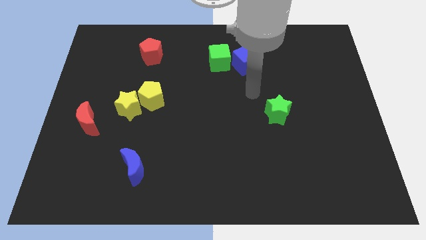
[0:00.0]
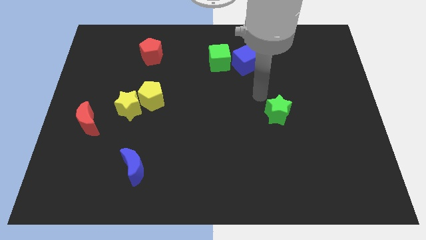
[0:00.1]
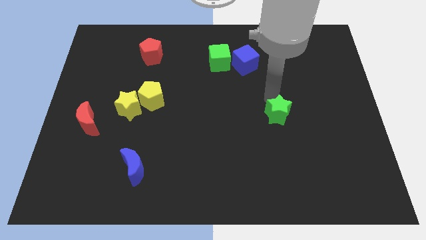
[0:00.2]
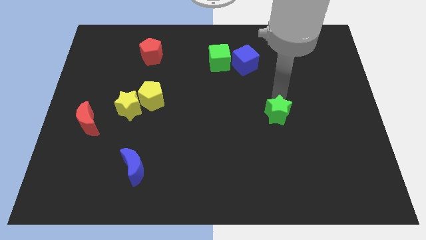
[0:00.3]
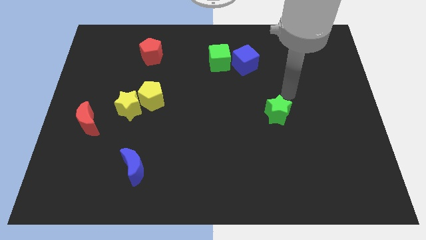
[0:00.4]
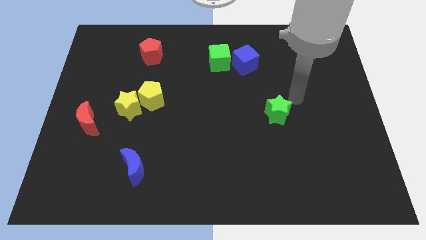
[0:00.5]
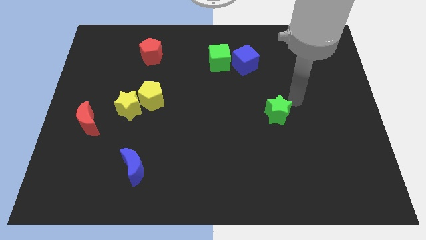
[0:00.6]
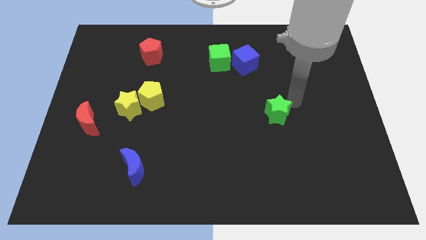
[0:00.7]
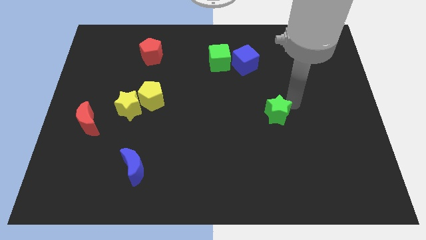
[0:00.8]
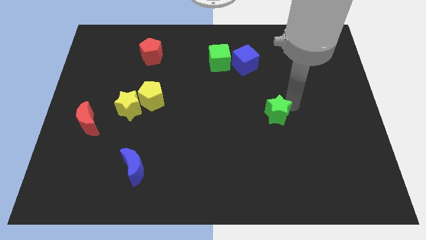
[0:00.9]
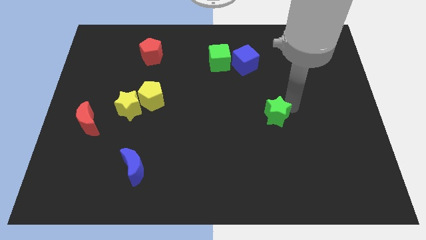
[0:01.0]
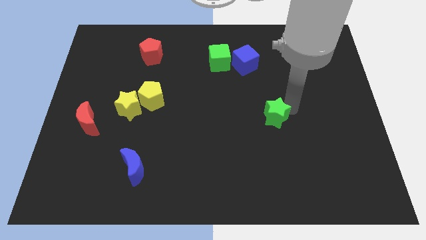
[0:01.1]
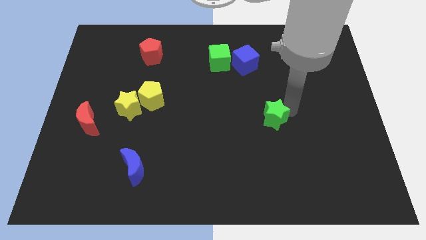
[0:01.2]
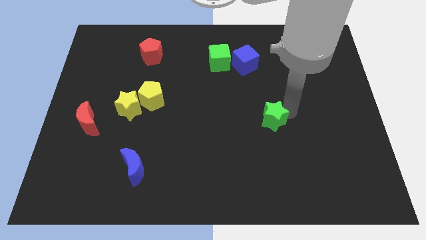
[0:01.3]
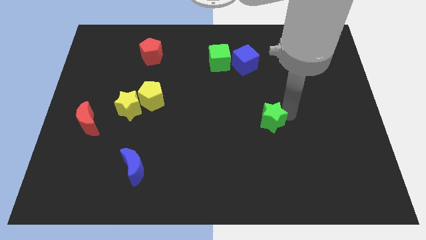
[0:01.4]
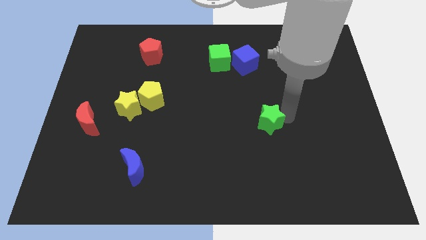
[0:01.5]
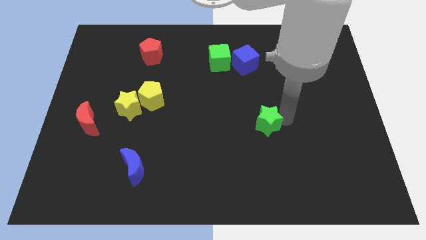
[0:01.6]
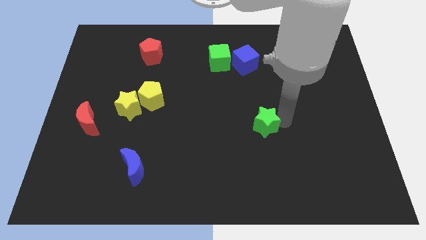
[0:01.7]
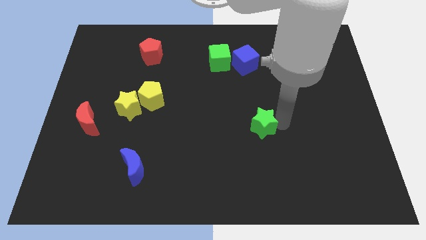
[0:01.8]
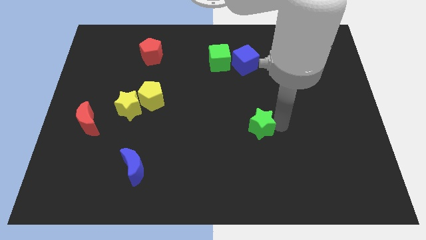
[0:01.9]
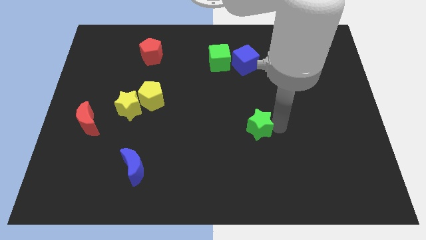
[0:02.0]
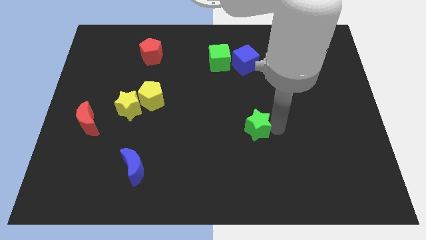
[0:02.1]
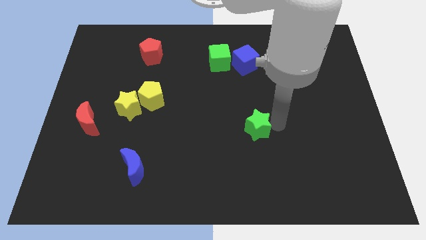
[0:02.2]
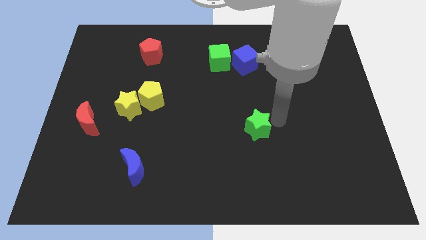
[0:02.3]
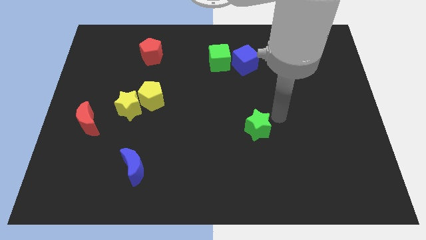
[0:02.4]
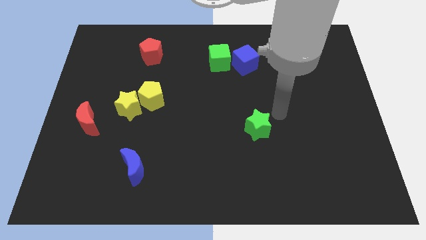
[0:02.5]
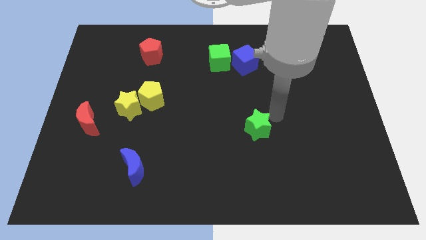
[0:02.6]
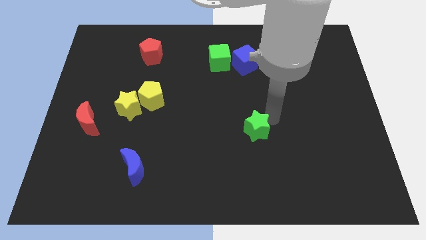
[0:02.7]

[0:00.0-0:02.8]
slightly move the green star downwards and then to the left

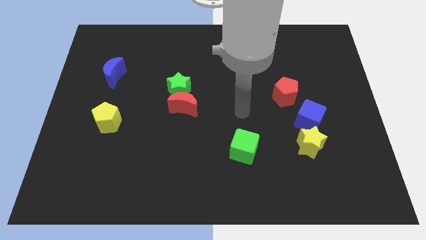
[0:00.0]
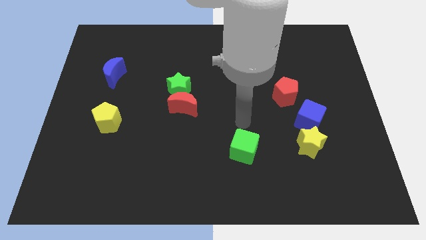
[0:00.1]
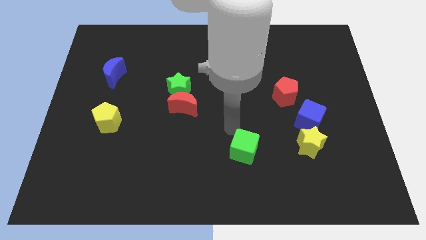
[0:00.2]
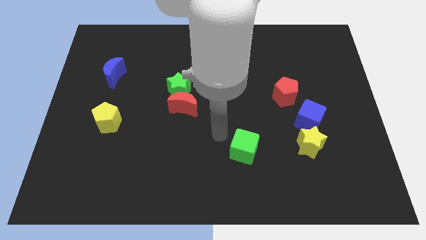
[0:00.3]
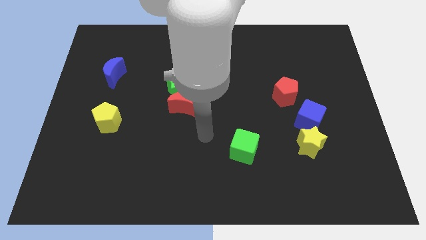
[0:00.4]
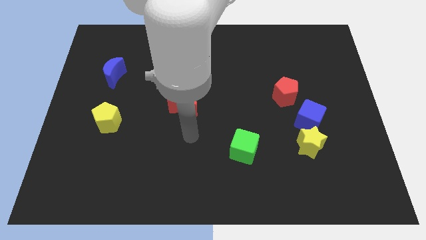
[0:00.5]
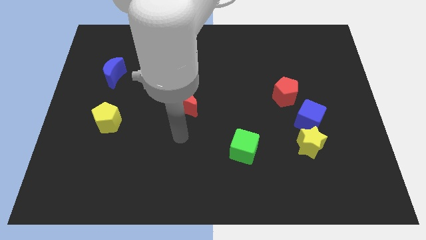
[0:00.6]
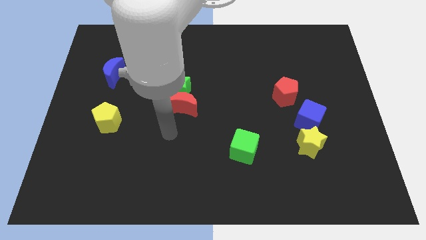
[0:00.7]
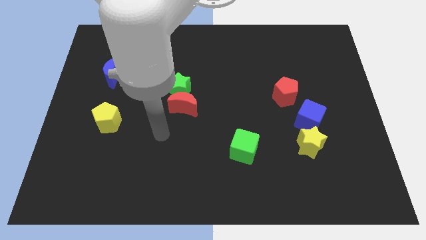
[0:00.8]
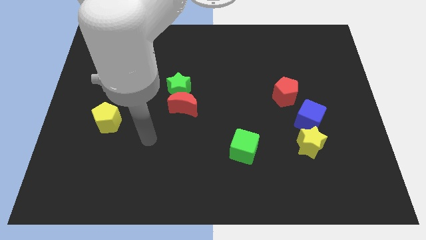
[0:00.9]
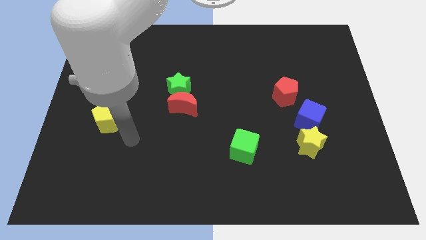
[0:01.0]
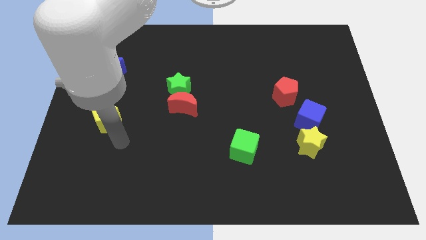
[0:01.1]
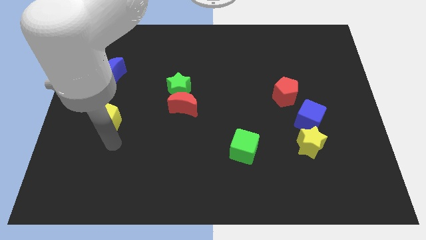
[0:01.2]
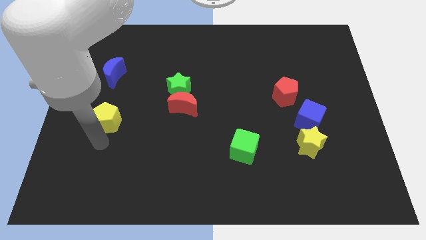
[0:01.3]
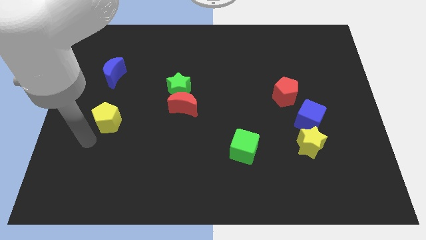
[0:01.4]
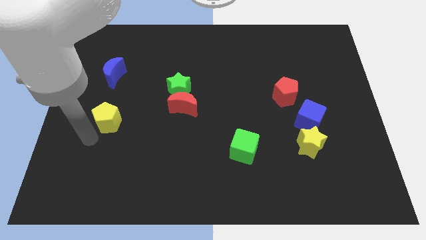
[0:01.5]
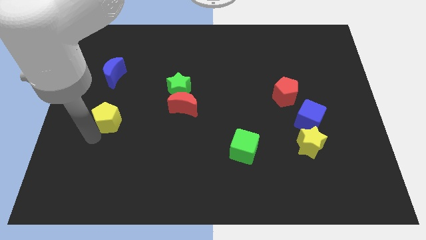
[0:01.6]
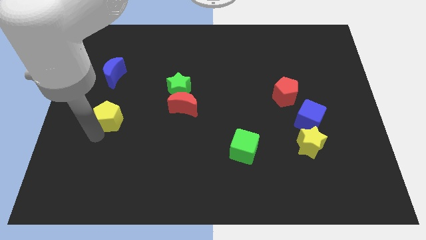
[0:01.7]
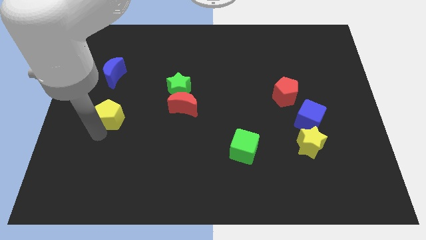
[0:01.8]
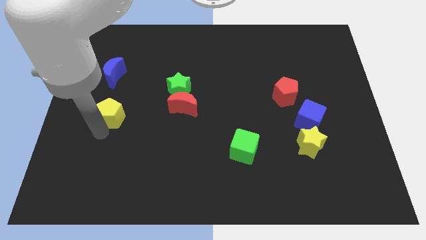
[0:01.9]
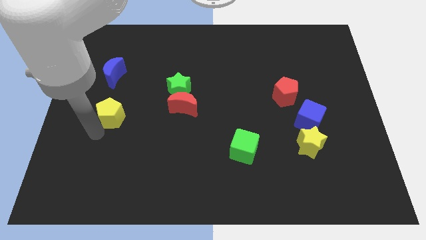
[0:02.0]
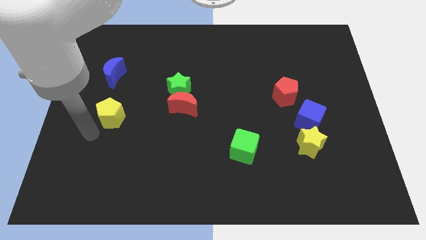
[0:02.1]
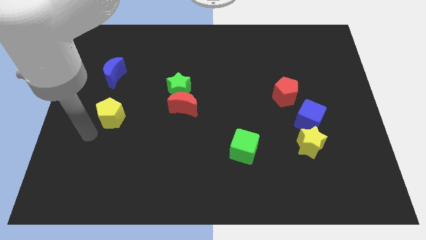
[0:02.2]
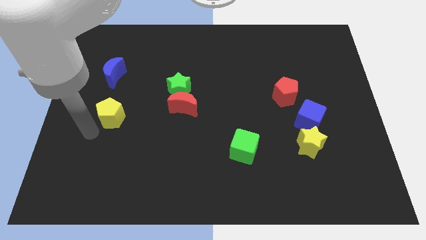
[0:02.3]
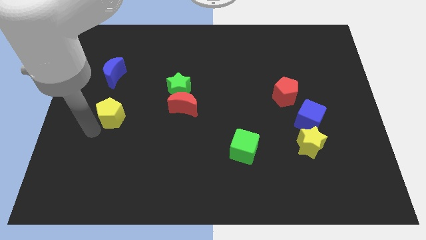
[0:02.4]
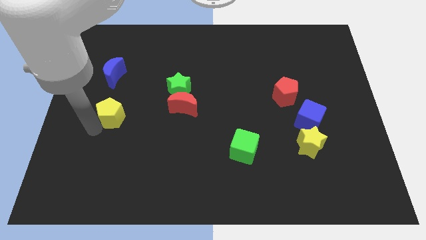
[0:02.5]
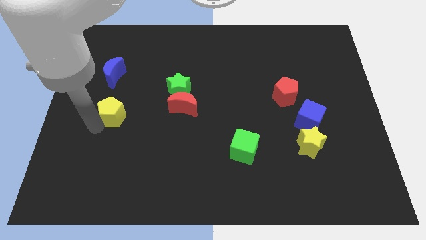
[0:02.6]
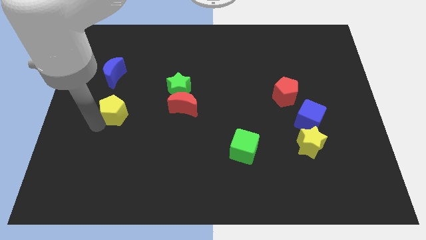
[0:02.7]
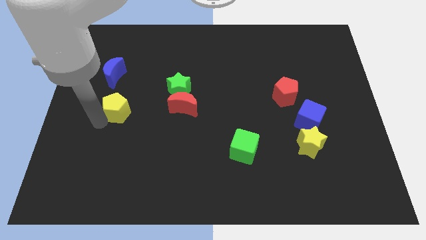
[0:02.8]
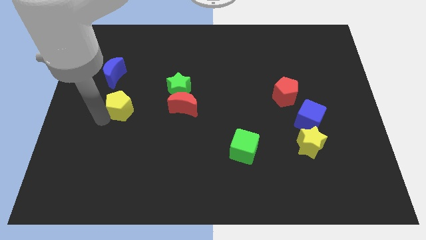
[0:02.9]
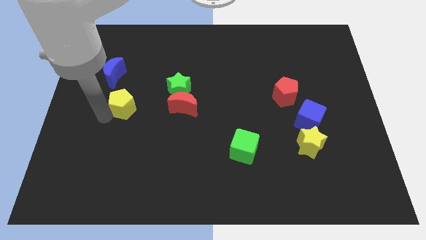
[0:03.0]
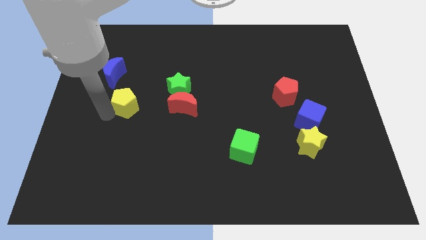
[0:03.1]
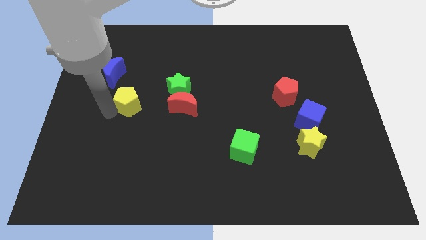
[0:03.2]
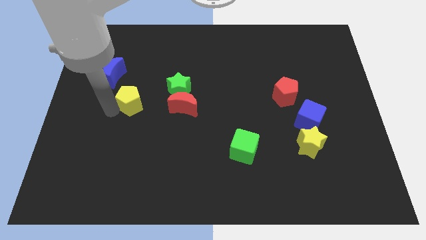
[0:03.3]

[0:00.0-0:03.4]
slightly slide the yellow pentagon upwards and then right

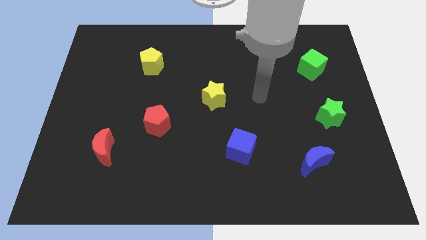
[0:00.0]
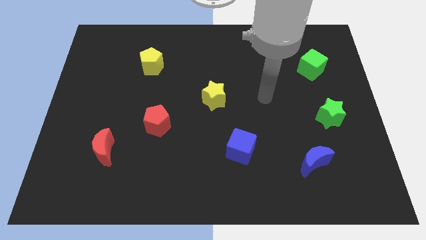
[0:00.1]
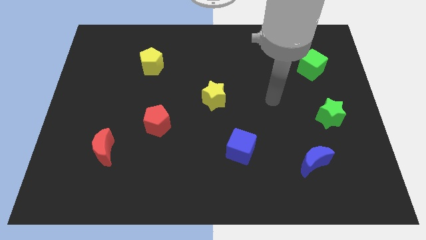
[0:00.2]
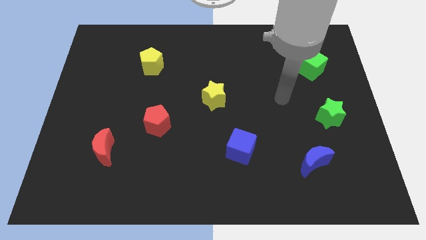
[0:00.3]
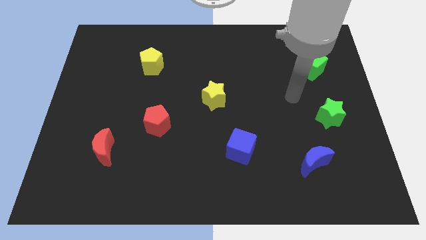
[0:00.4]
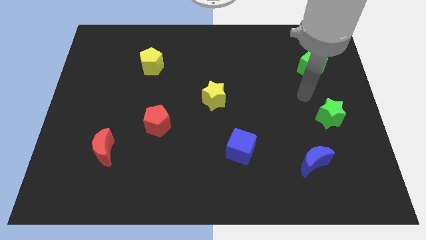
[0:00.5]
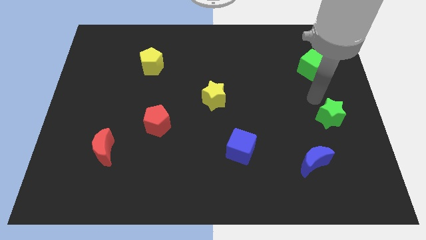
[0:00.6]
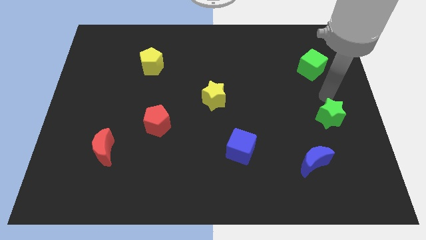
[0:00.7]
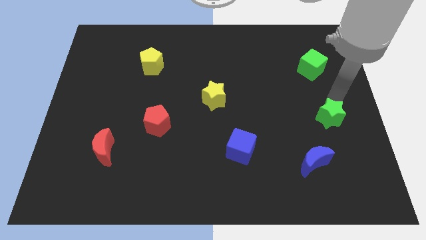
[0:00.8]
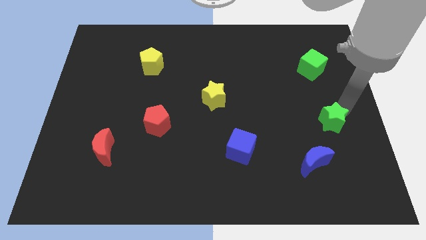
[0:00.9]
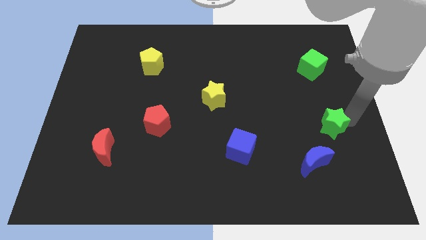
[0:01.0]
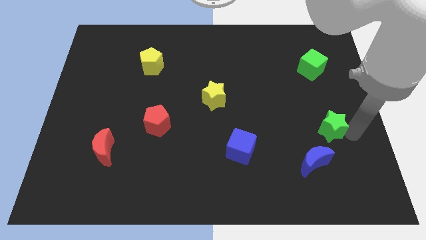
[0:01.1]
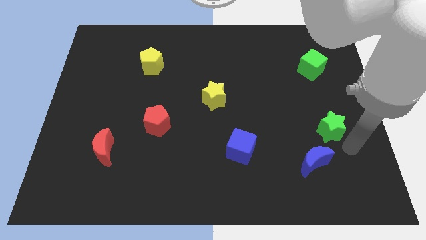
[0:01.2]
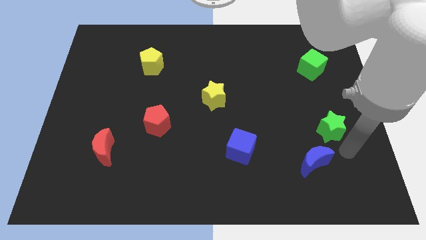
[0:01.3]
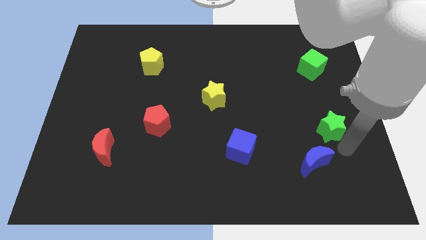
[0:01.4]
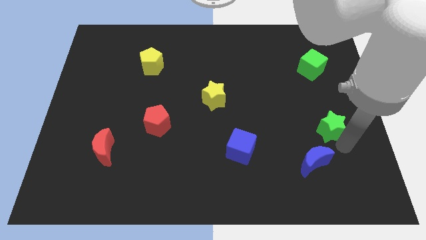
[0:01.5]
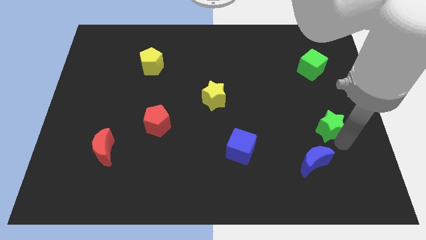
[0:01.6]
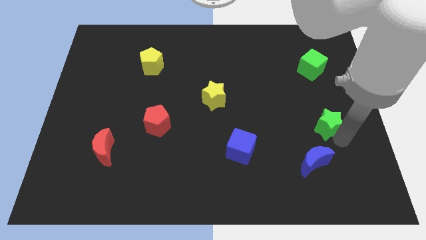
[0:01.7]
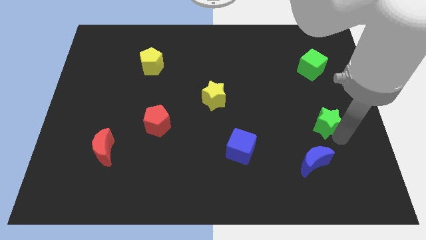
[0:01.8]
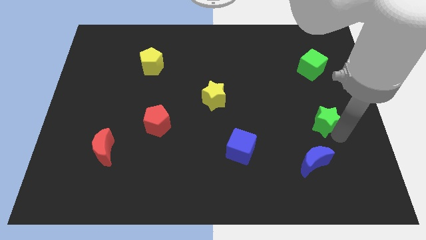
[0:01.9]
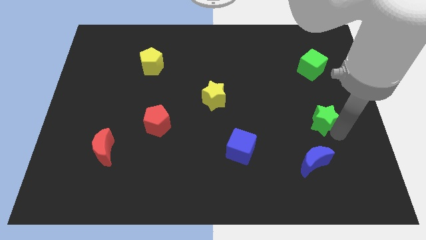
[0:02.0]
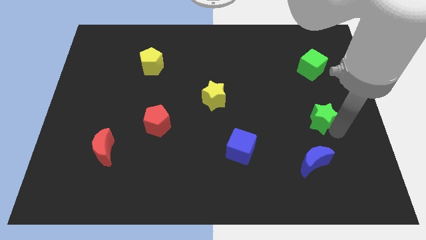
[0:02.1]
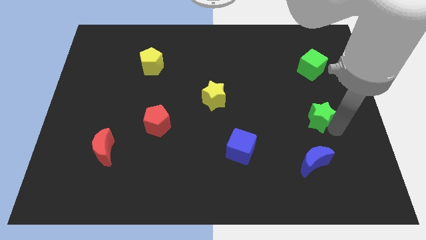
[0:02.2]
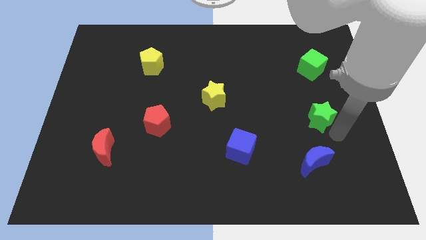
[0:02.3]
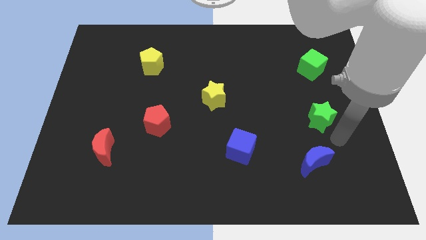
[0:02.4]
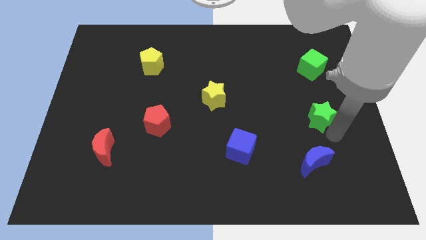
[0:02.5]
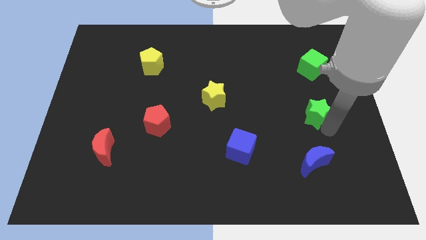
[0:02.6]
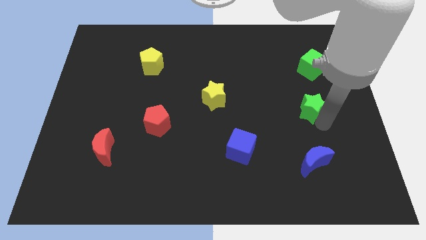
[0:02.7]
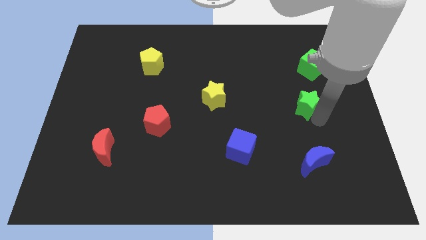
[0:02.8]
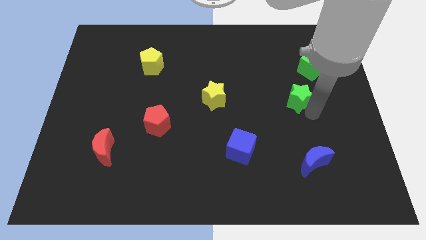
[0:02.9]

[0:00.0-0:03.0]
slightly push the green star up and then to the left
